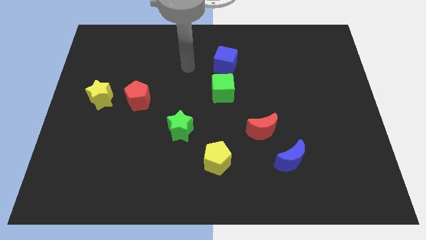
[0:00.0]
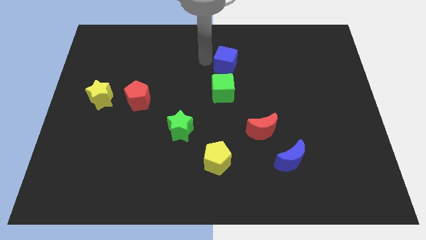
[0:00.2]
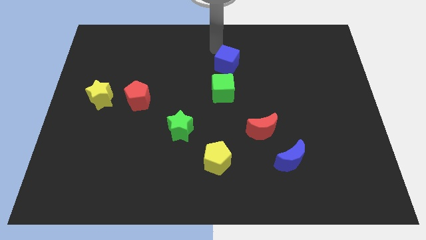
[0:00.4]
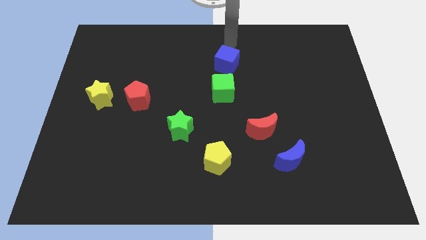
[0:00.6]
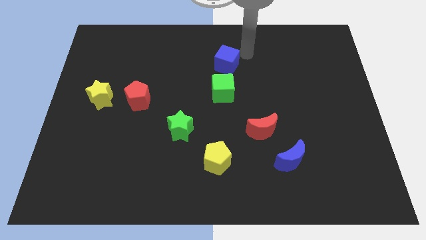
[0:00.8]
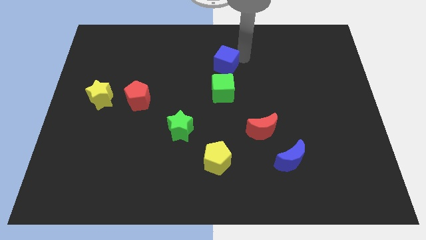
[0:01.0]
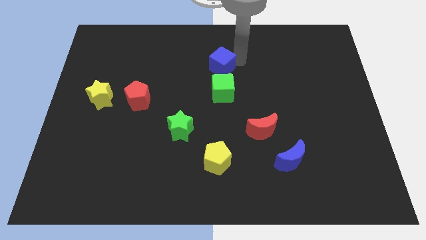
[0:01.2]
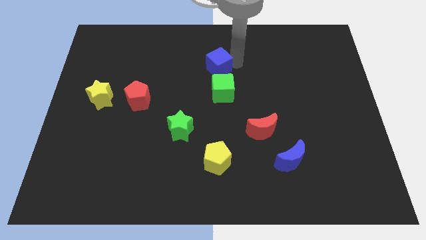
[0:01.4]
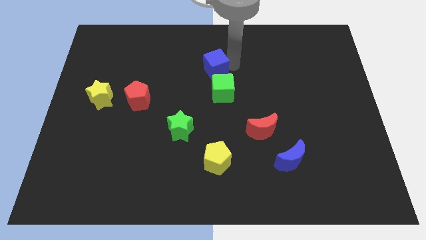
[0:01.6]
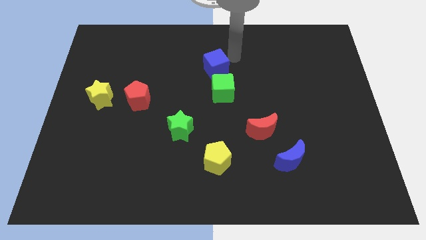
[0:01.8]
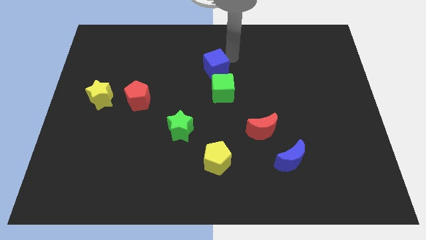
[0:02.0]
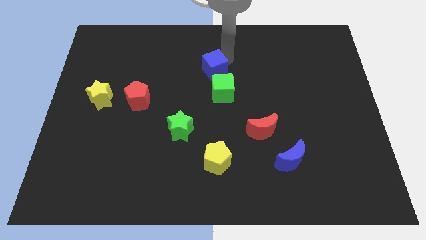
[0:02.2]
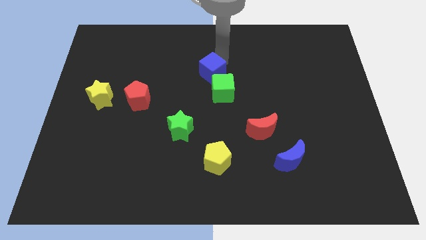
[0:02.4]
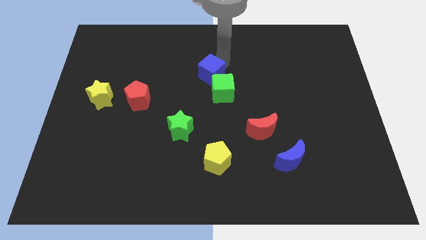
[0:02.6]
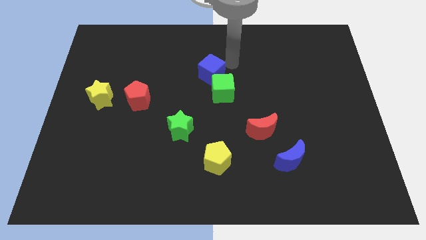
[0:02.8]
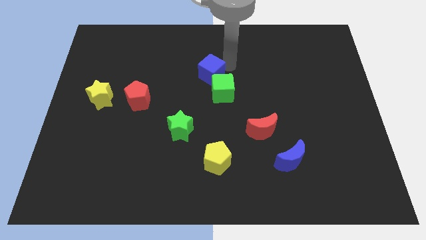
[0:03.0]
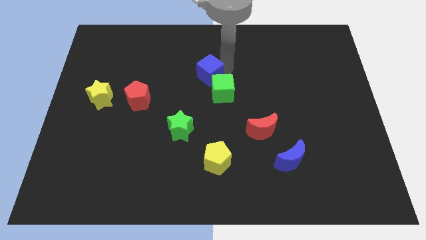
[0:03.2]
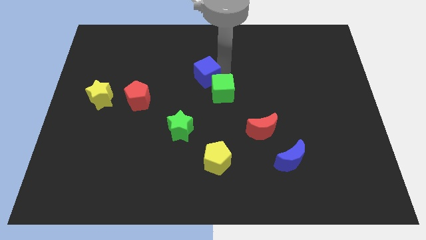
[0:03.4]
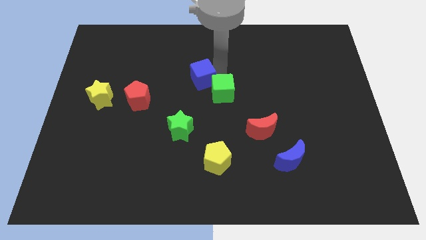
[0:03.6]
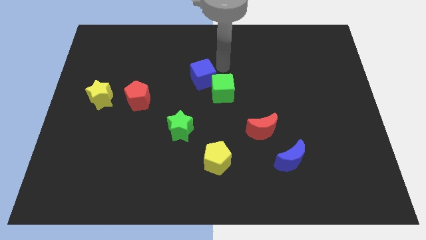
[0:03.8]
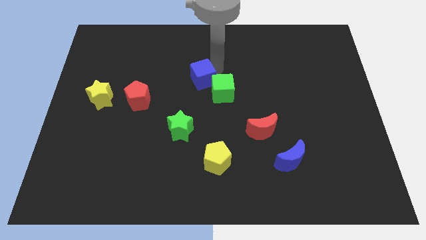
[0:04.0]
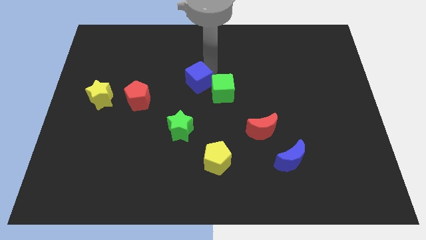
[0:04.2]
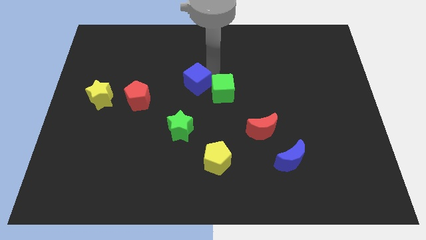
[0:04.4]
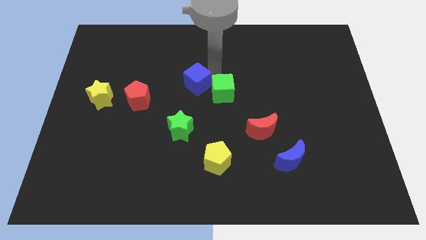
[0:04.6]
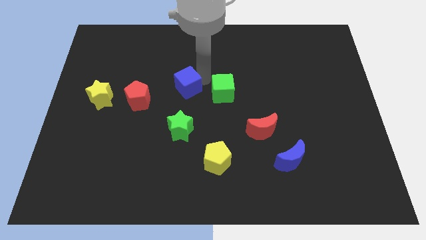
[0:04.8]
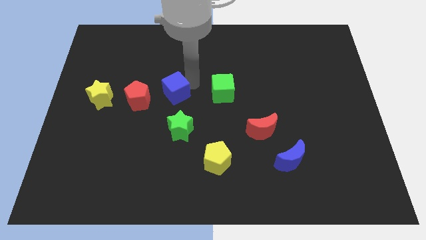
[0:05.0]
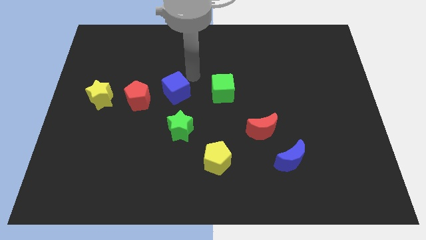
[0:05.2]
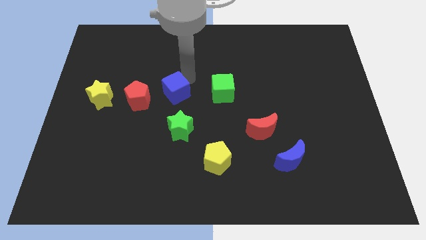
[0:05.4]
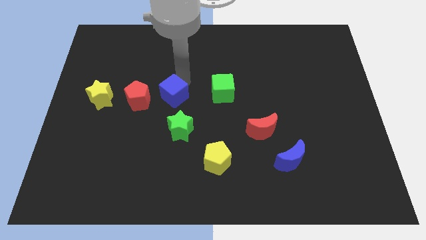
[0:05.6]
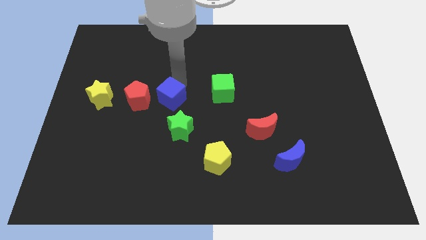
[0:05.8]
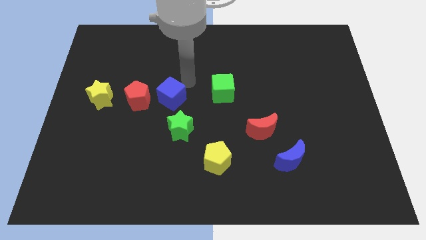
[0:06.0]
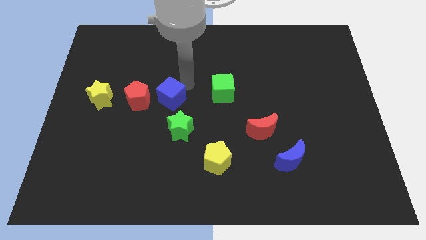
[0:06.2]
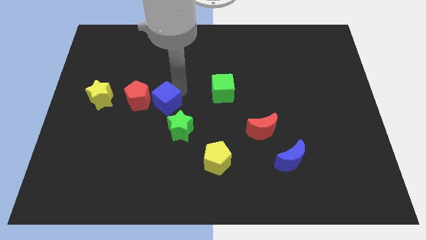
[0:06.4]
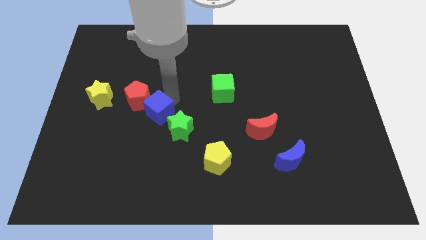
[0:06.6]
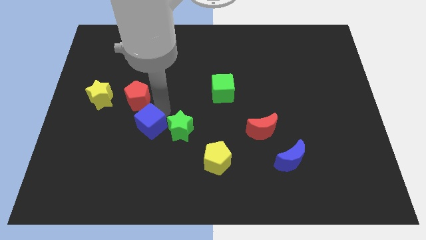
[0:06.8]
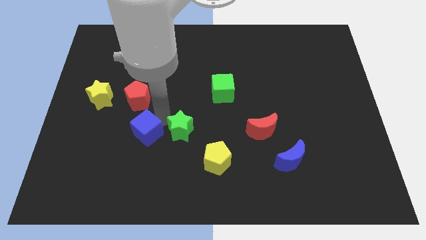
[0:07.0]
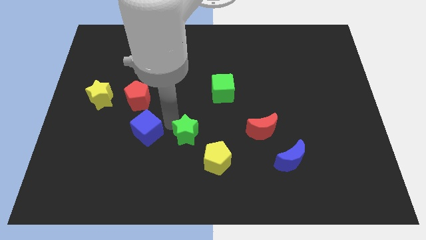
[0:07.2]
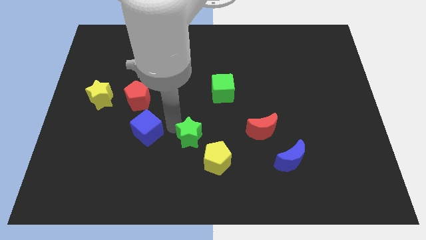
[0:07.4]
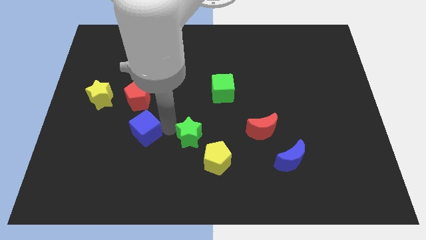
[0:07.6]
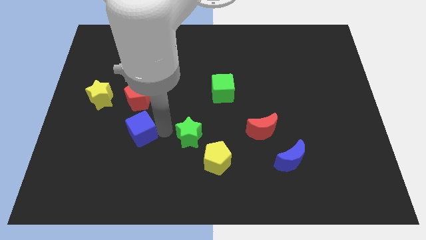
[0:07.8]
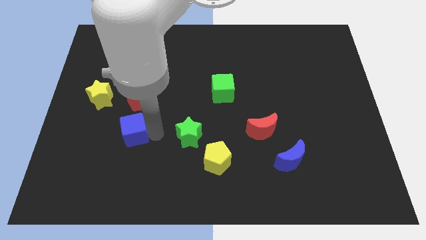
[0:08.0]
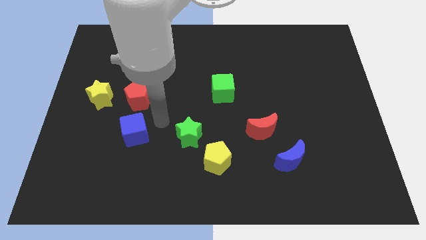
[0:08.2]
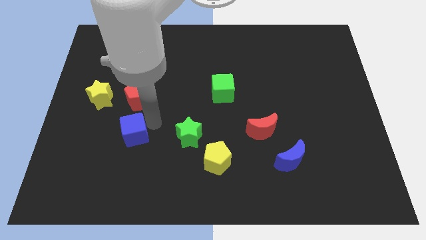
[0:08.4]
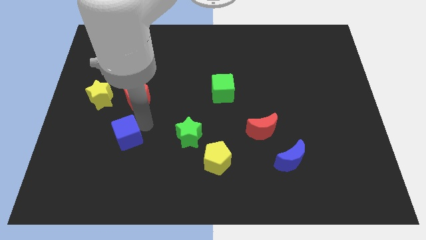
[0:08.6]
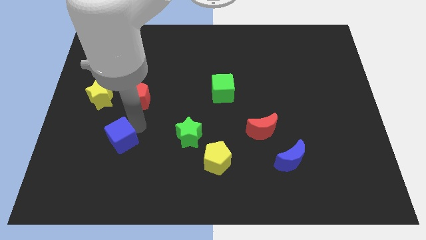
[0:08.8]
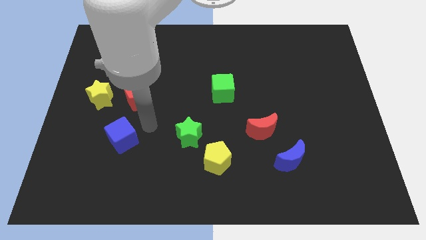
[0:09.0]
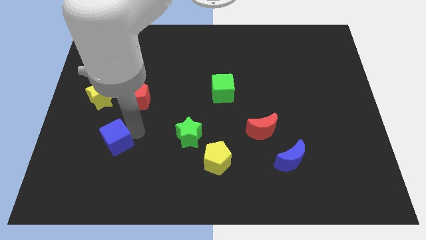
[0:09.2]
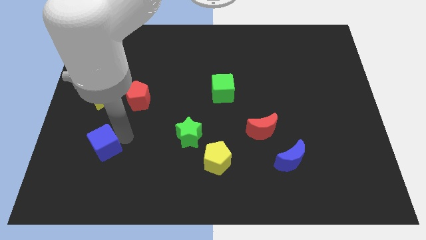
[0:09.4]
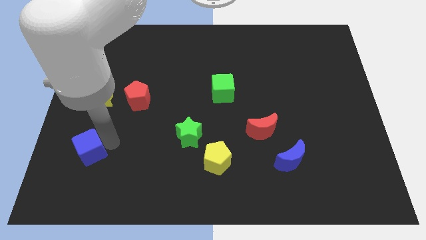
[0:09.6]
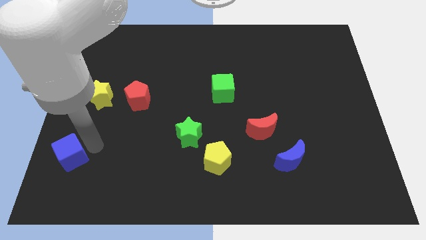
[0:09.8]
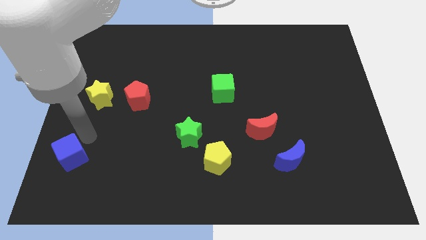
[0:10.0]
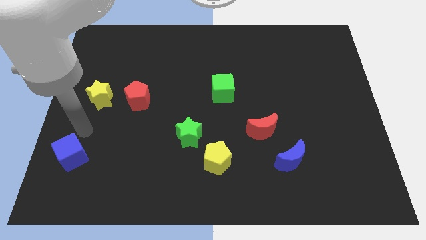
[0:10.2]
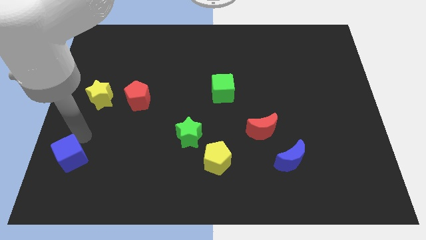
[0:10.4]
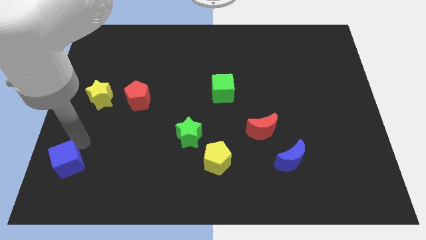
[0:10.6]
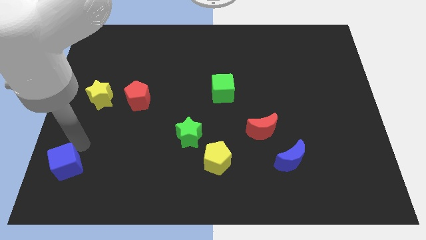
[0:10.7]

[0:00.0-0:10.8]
move the blue cube to the bottom left

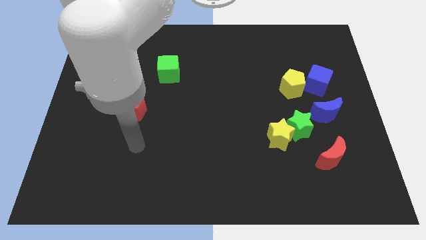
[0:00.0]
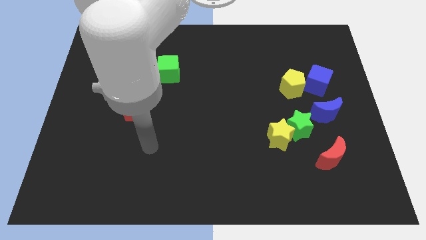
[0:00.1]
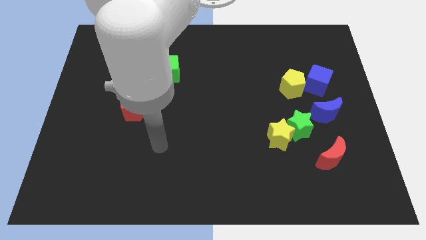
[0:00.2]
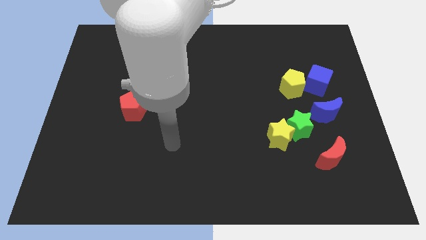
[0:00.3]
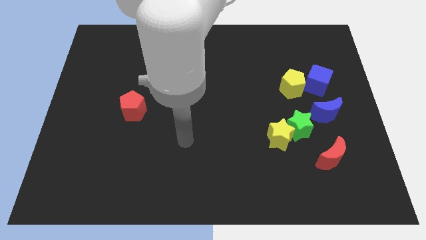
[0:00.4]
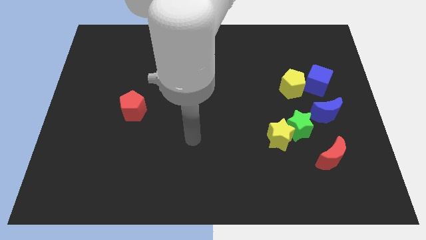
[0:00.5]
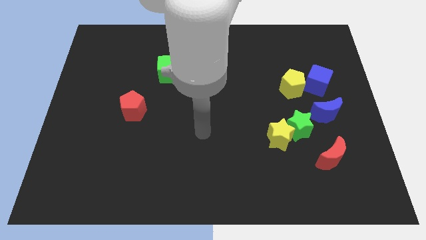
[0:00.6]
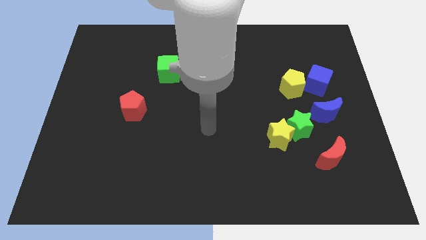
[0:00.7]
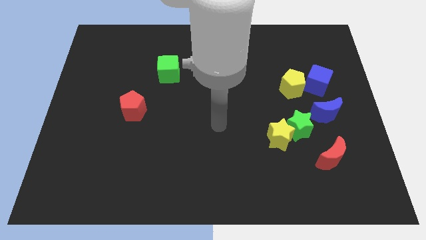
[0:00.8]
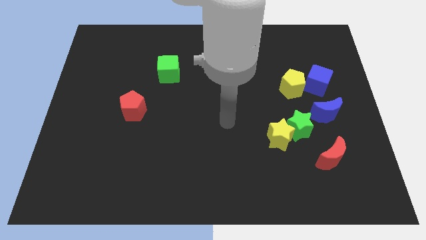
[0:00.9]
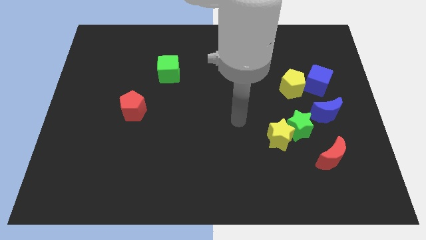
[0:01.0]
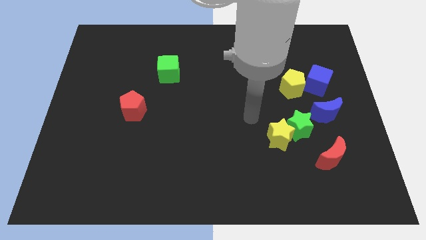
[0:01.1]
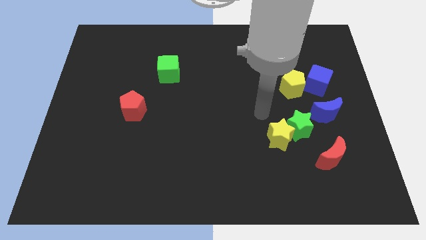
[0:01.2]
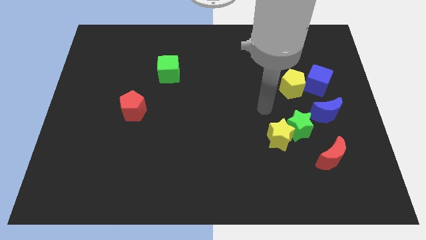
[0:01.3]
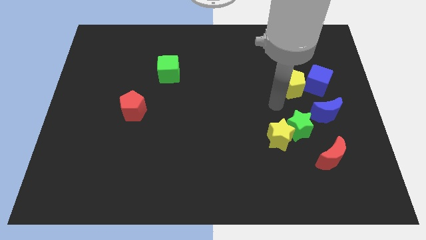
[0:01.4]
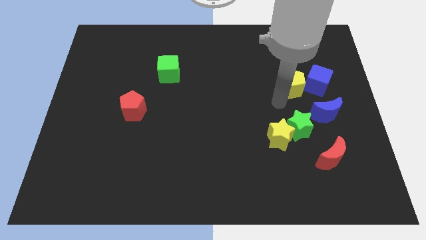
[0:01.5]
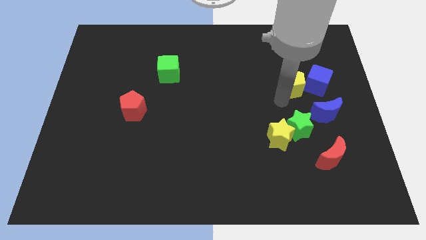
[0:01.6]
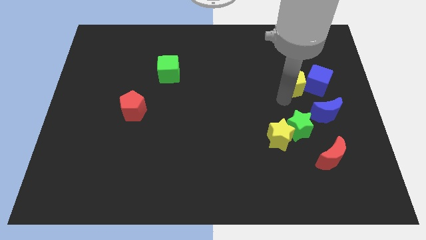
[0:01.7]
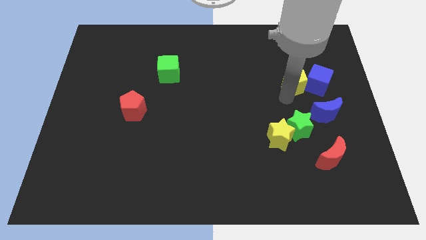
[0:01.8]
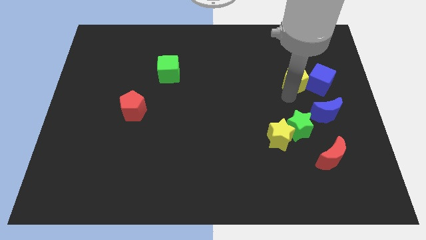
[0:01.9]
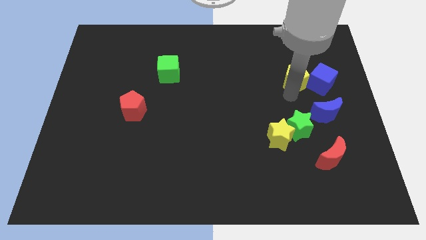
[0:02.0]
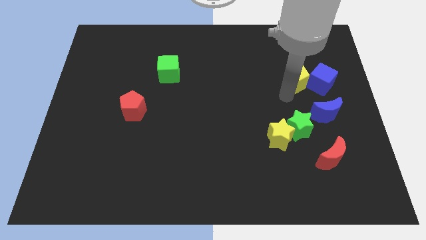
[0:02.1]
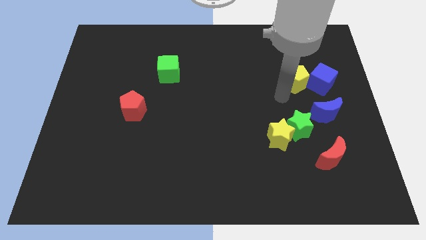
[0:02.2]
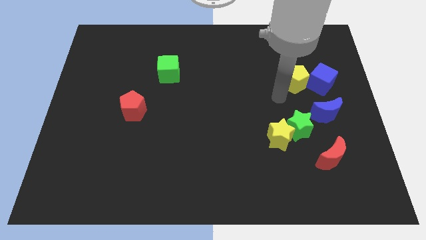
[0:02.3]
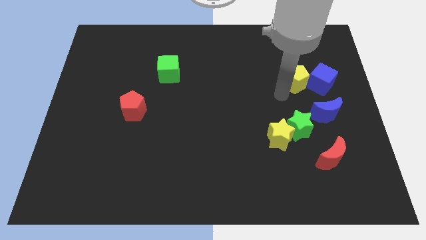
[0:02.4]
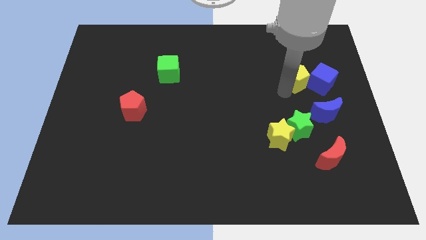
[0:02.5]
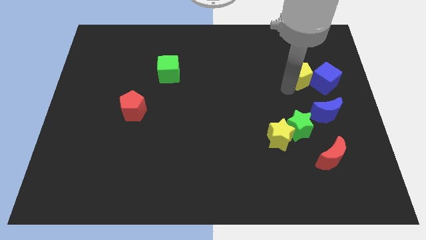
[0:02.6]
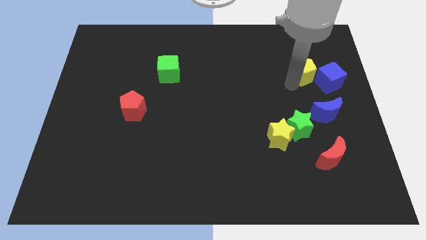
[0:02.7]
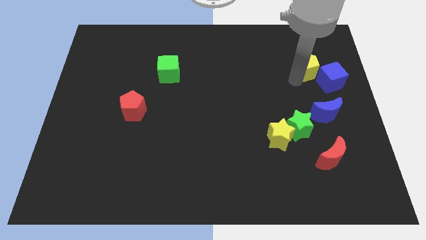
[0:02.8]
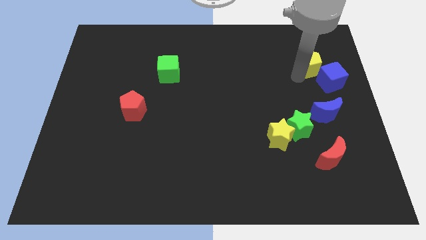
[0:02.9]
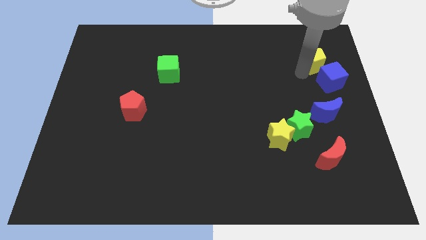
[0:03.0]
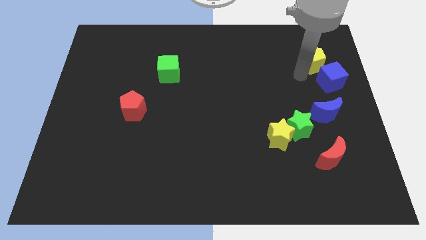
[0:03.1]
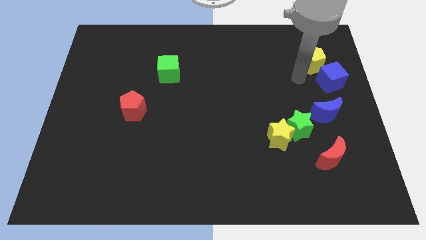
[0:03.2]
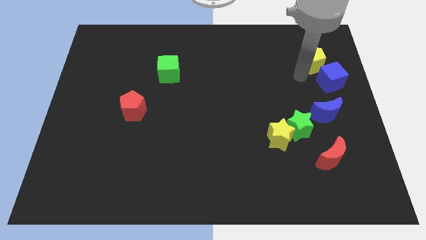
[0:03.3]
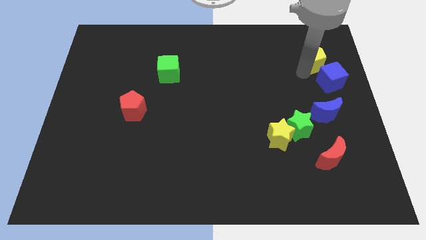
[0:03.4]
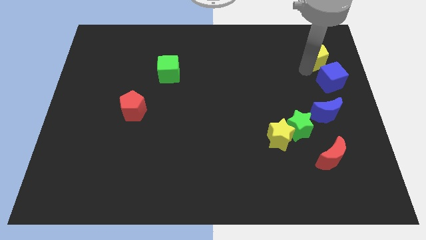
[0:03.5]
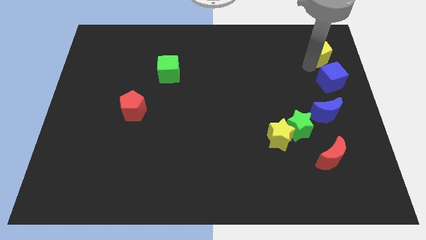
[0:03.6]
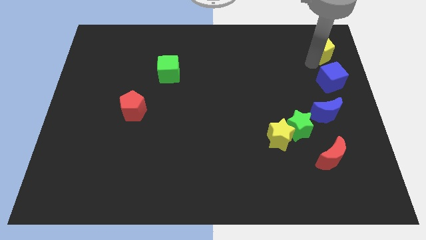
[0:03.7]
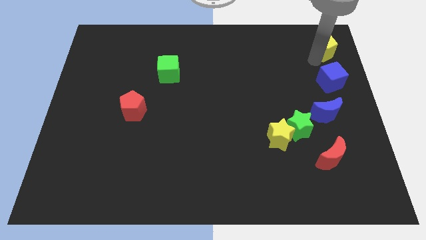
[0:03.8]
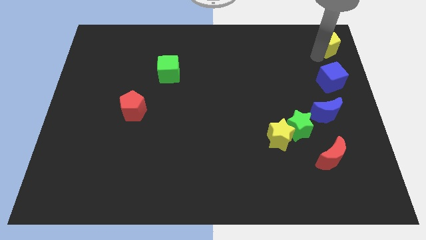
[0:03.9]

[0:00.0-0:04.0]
move the yellow pentagon to the upper right corner
